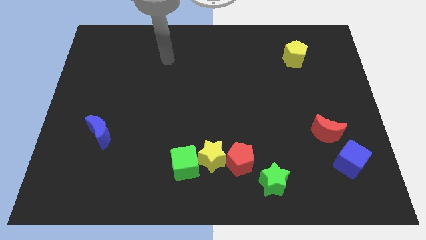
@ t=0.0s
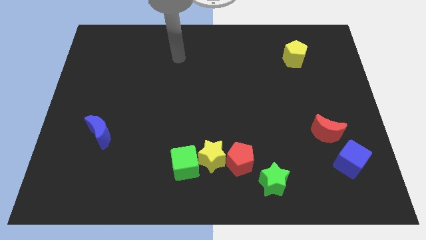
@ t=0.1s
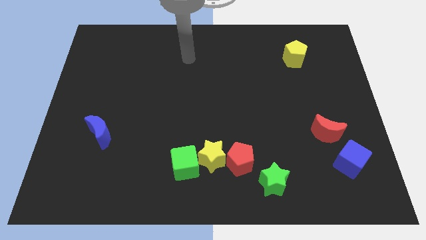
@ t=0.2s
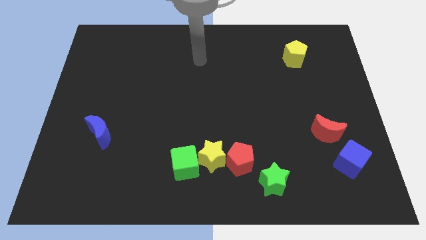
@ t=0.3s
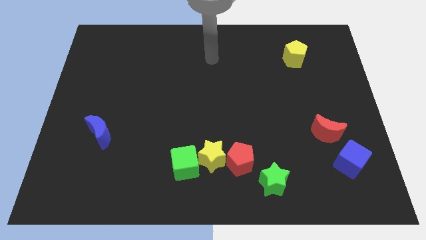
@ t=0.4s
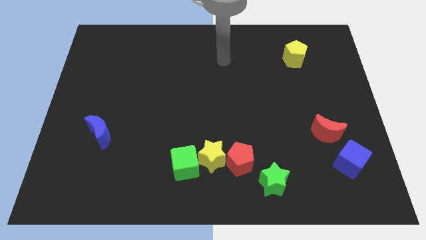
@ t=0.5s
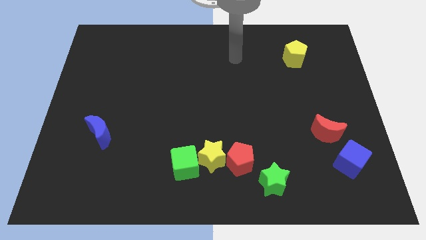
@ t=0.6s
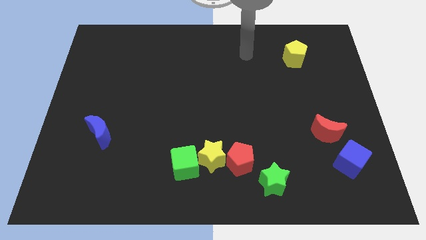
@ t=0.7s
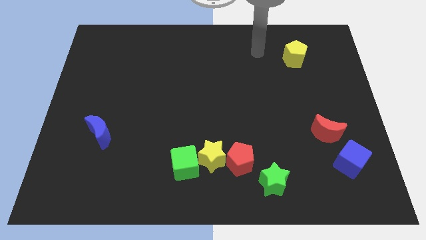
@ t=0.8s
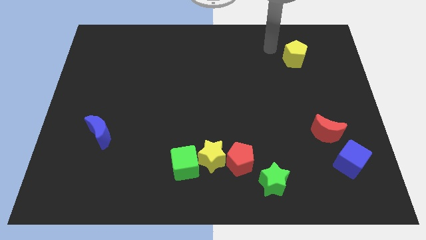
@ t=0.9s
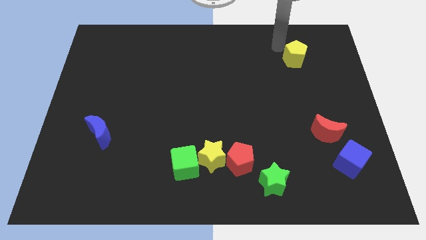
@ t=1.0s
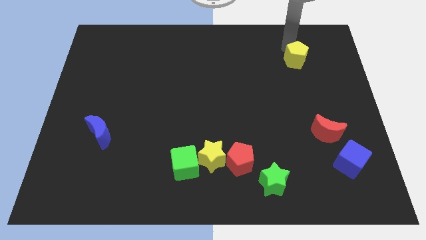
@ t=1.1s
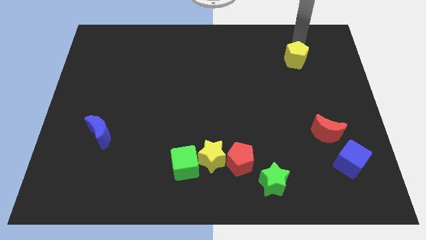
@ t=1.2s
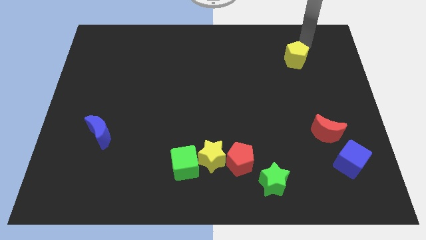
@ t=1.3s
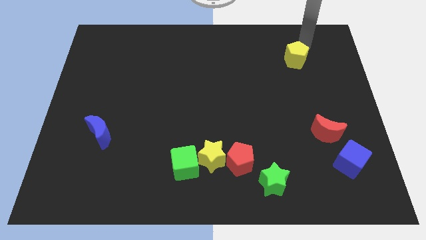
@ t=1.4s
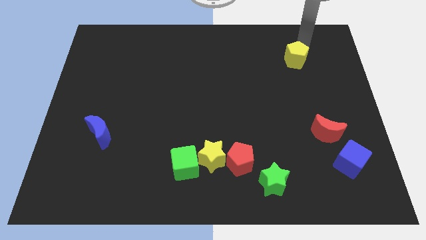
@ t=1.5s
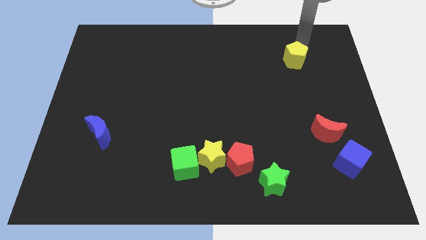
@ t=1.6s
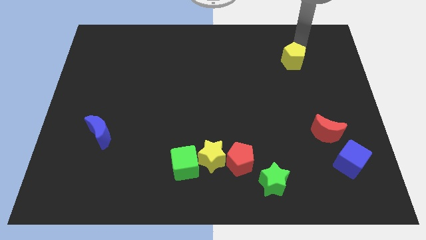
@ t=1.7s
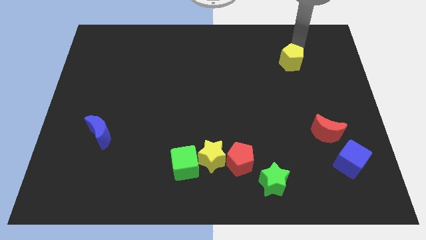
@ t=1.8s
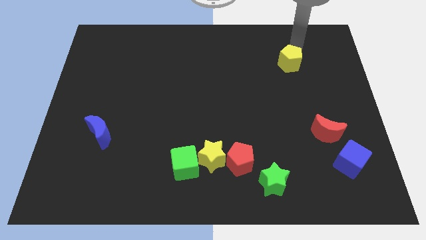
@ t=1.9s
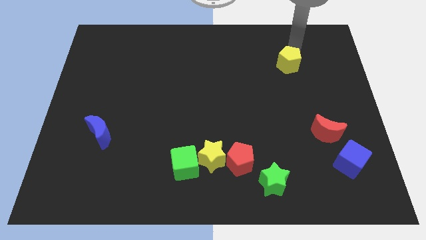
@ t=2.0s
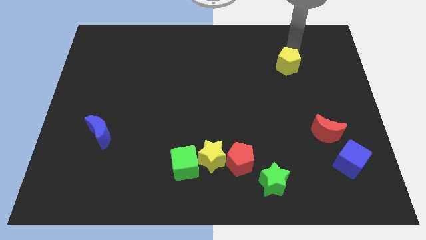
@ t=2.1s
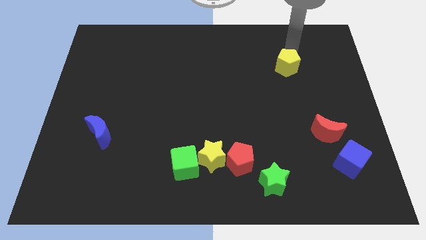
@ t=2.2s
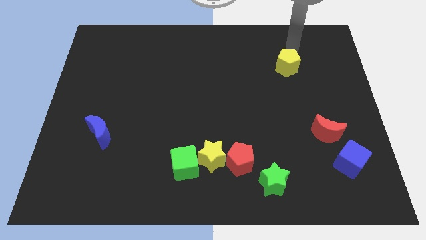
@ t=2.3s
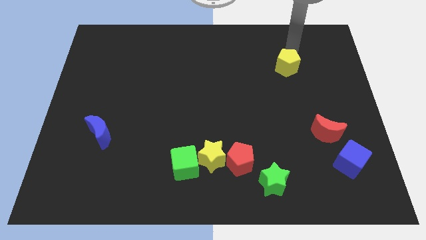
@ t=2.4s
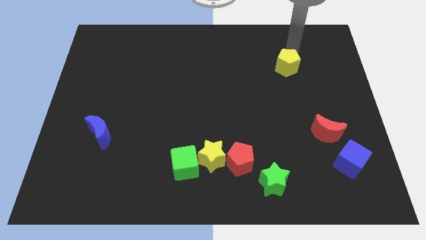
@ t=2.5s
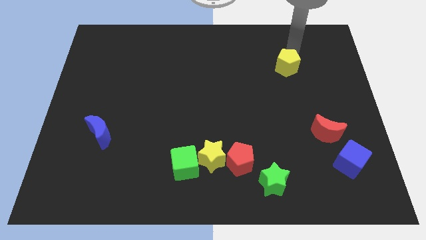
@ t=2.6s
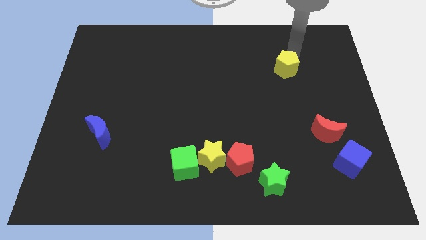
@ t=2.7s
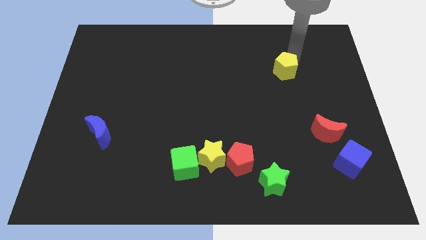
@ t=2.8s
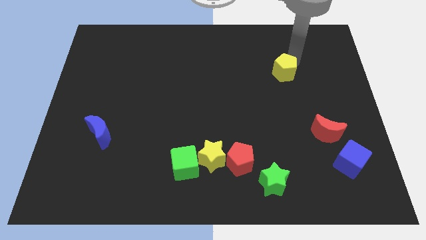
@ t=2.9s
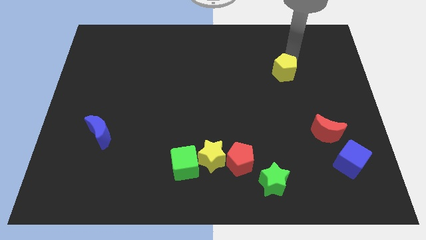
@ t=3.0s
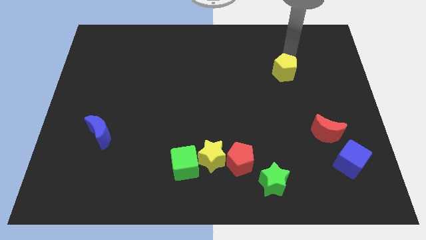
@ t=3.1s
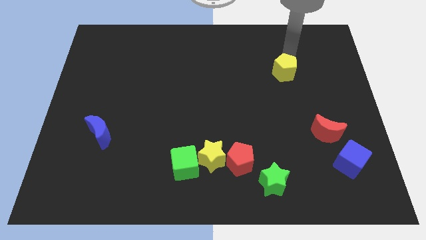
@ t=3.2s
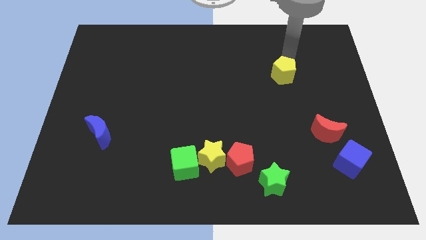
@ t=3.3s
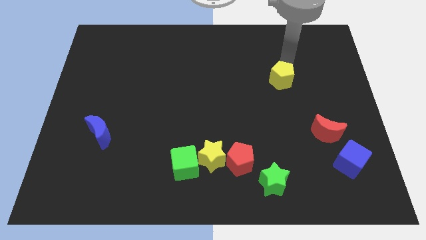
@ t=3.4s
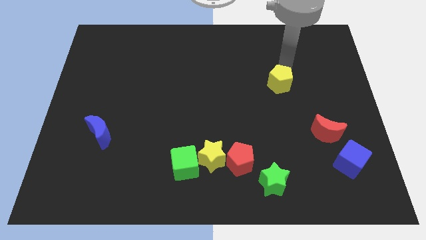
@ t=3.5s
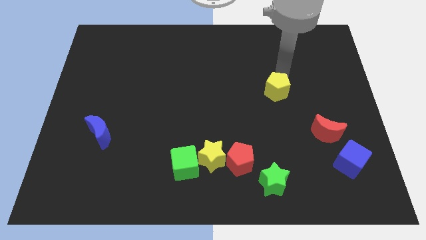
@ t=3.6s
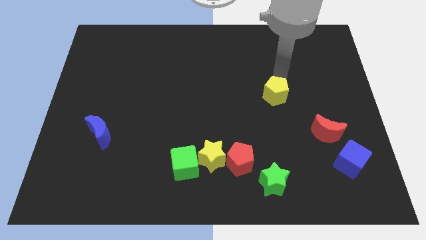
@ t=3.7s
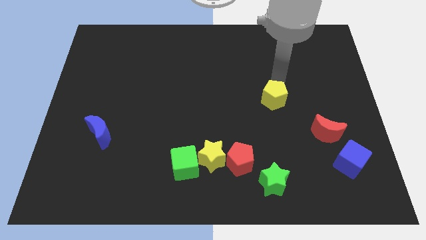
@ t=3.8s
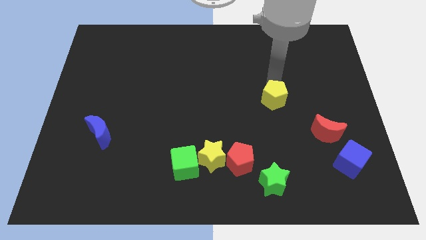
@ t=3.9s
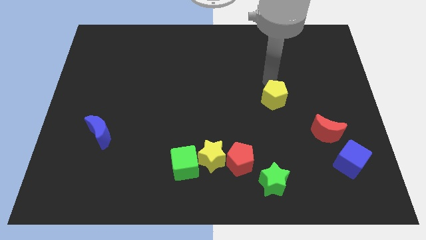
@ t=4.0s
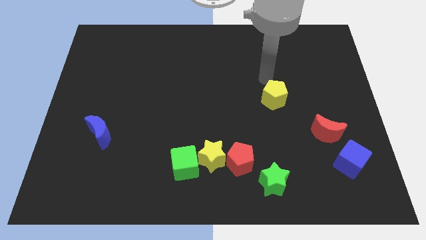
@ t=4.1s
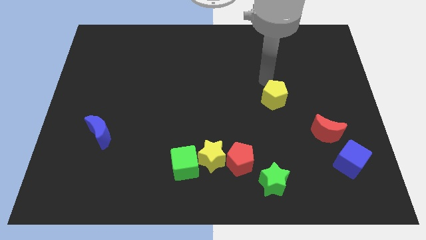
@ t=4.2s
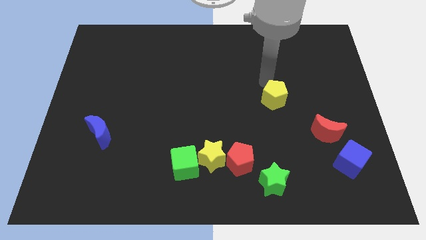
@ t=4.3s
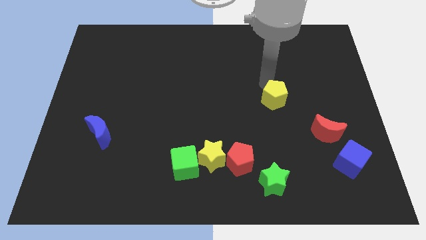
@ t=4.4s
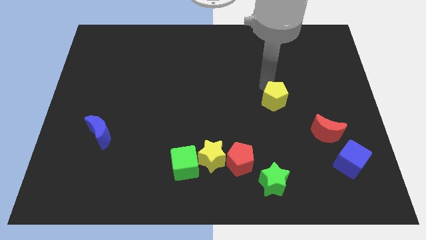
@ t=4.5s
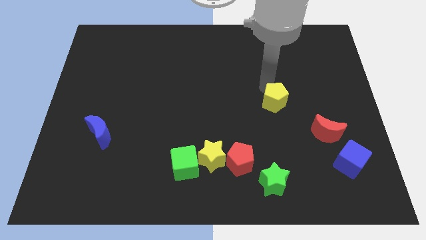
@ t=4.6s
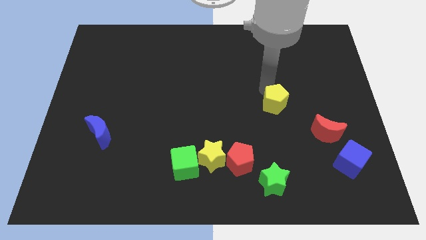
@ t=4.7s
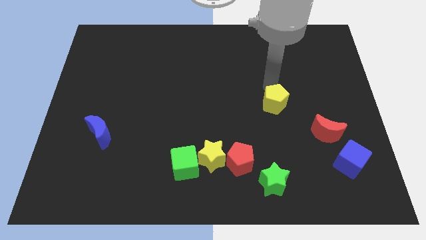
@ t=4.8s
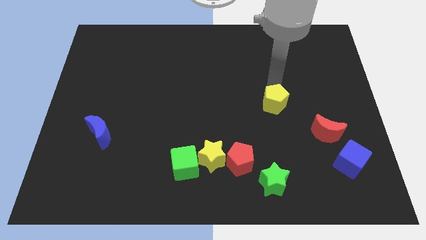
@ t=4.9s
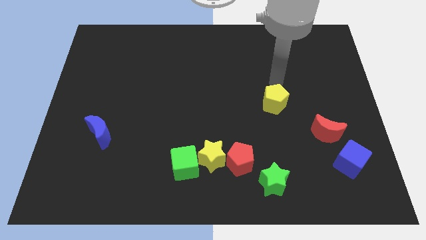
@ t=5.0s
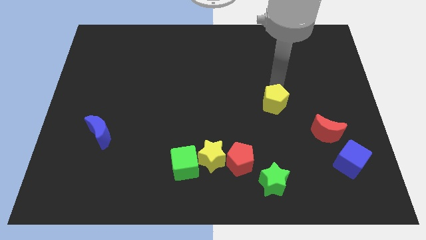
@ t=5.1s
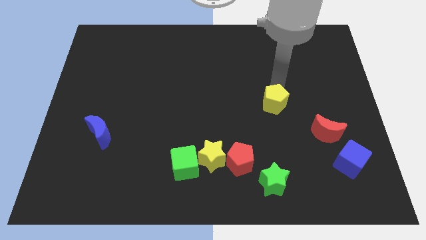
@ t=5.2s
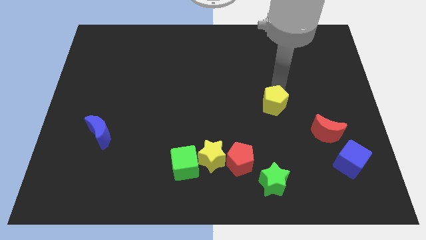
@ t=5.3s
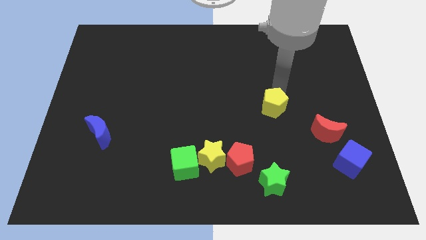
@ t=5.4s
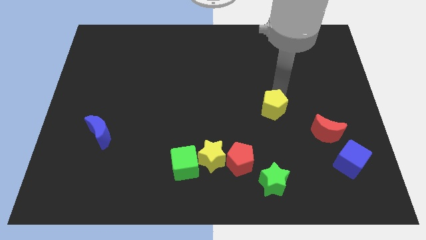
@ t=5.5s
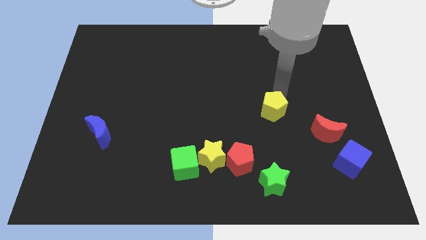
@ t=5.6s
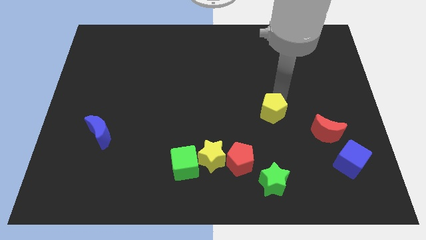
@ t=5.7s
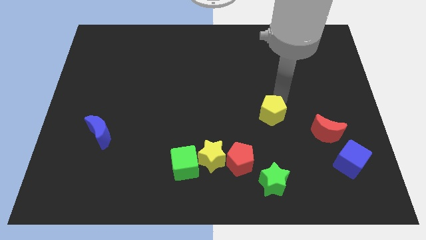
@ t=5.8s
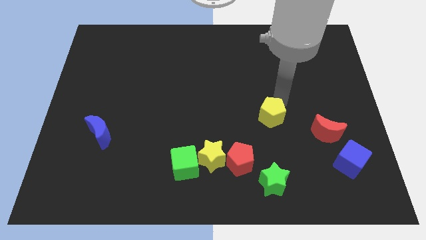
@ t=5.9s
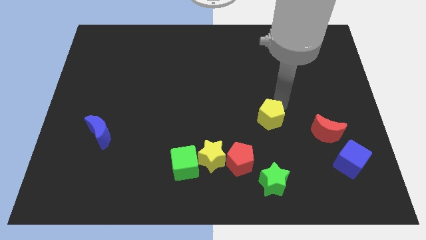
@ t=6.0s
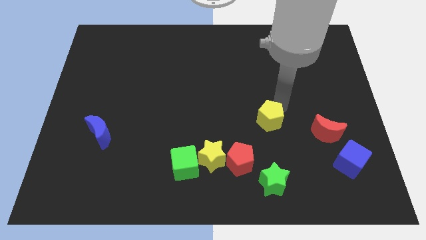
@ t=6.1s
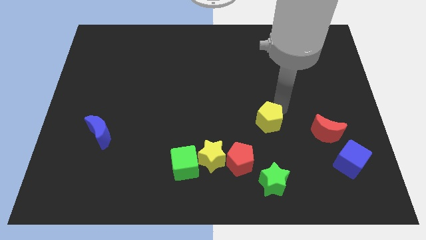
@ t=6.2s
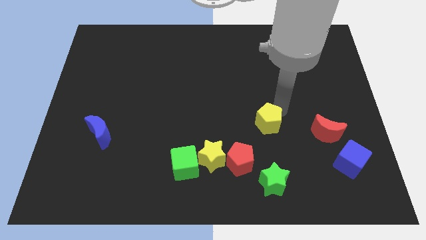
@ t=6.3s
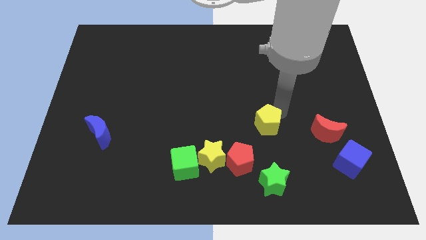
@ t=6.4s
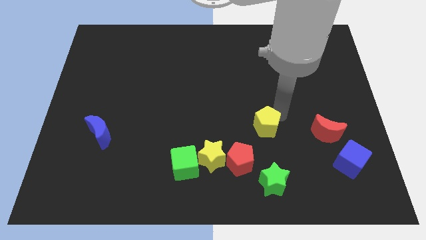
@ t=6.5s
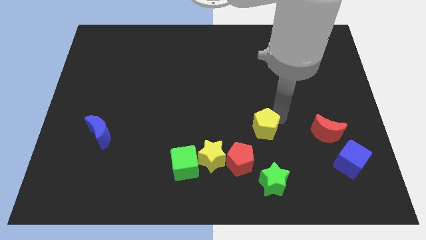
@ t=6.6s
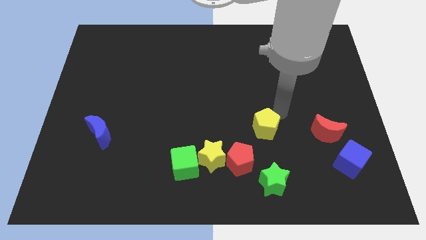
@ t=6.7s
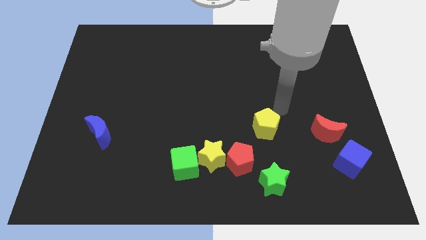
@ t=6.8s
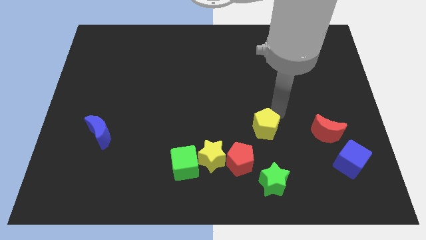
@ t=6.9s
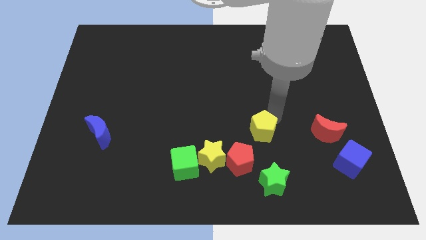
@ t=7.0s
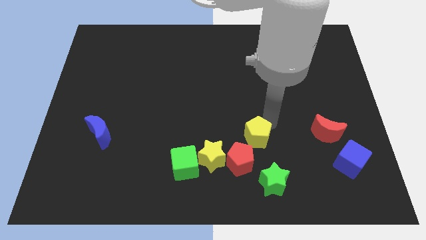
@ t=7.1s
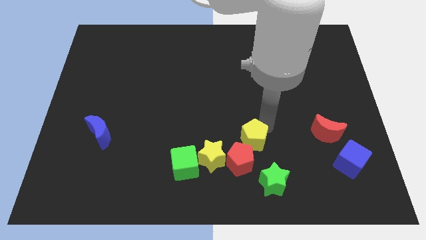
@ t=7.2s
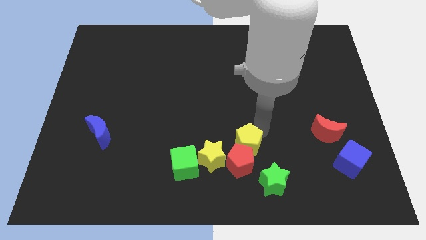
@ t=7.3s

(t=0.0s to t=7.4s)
move the yellow pentagon next to the red pentagon
